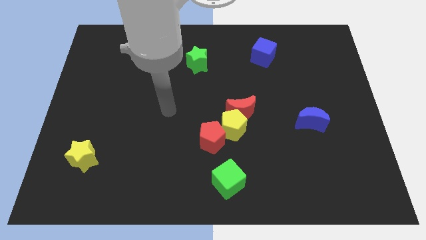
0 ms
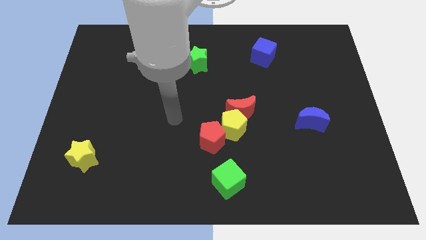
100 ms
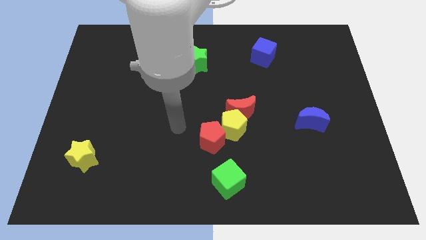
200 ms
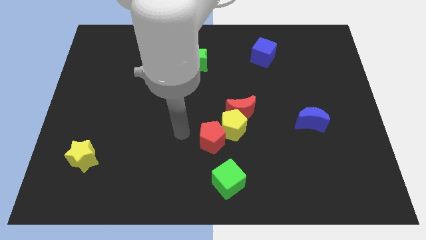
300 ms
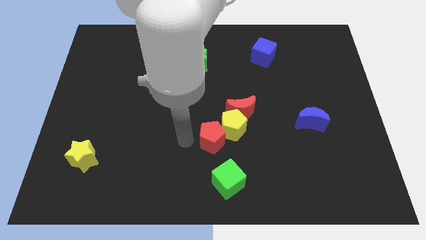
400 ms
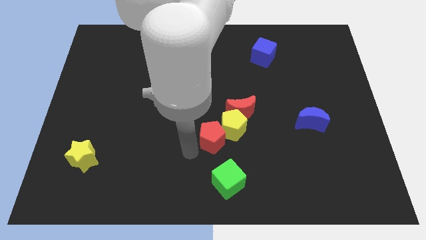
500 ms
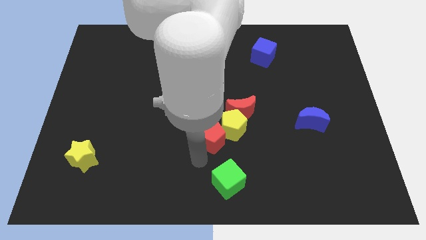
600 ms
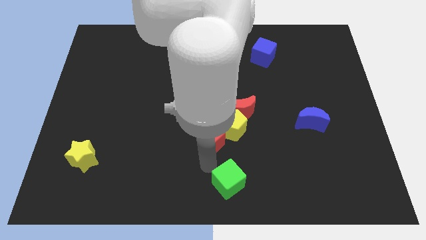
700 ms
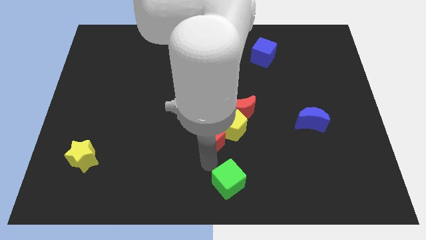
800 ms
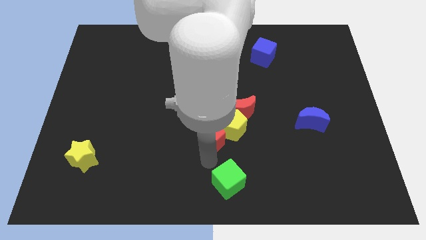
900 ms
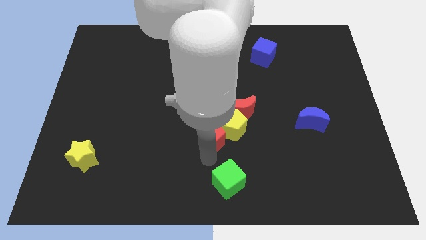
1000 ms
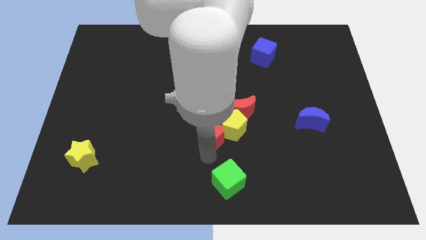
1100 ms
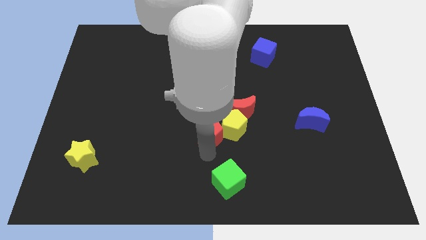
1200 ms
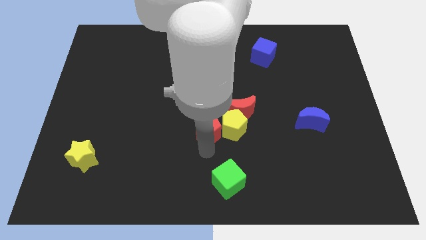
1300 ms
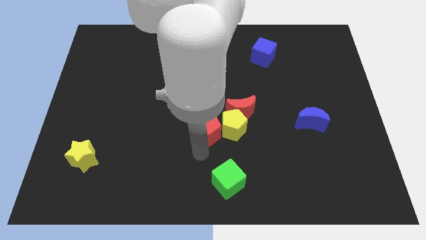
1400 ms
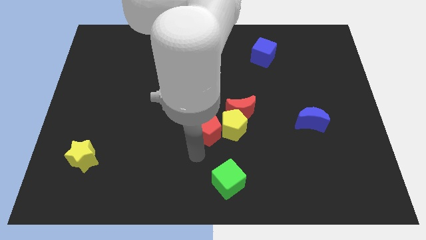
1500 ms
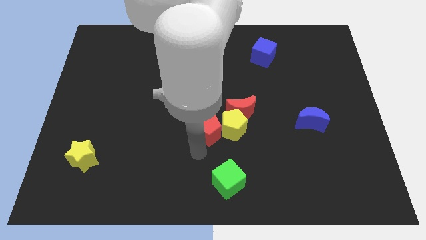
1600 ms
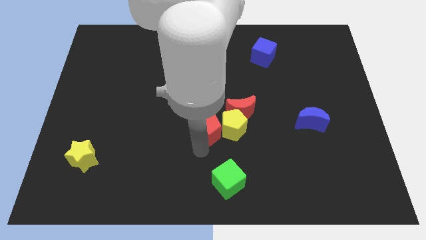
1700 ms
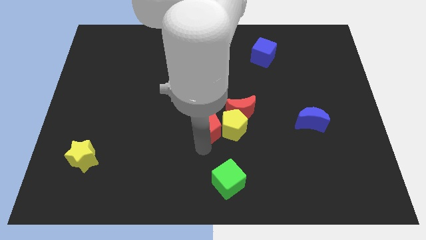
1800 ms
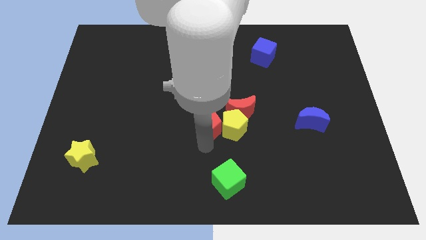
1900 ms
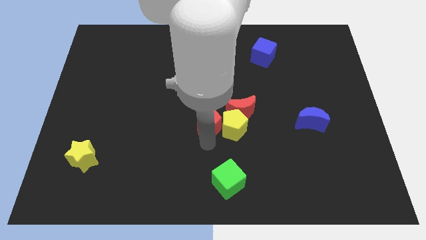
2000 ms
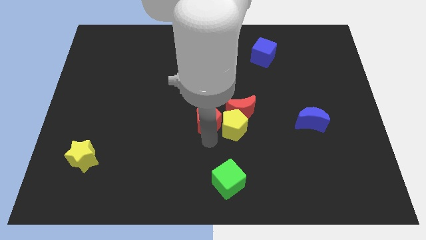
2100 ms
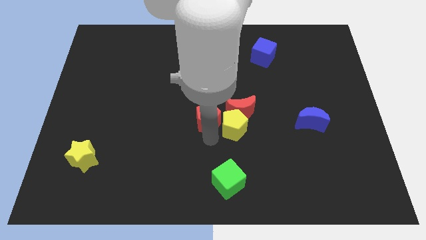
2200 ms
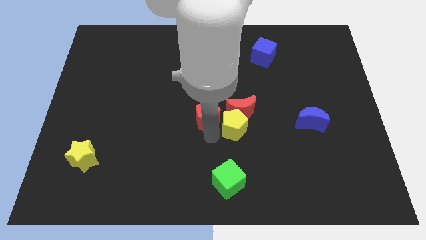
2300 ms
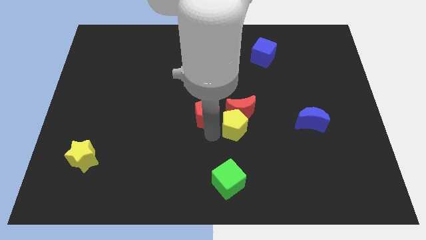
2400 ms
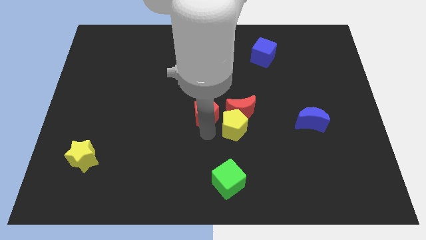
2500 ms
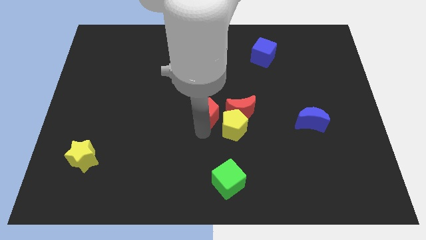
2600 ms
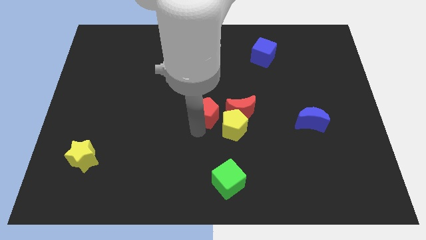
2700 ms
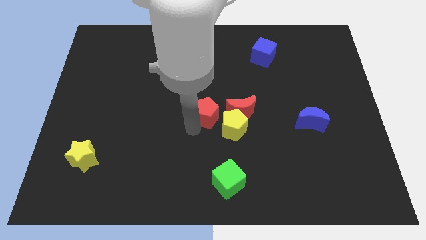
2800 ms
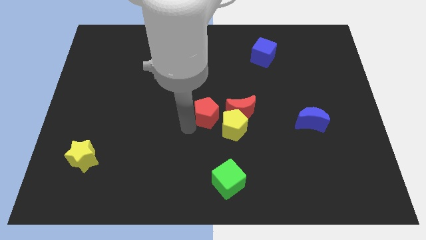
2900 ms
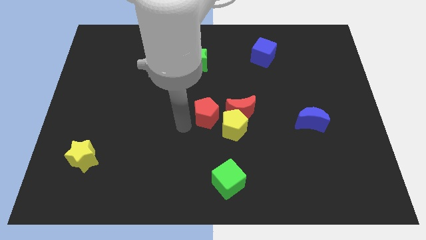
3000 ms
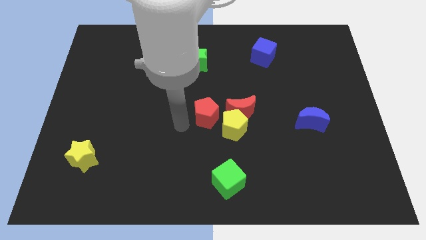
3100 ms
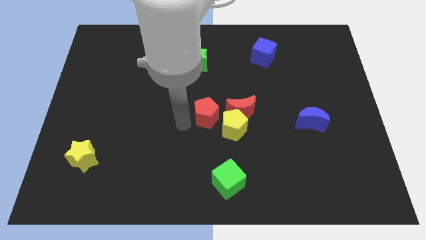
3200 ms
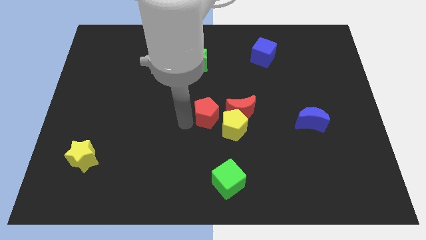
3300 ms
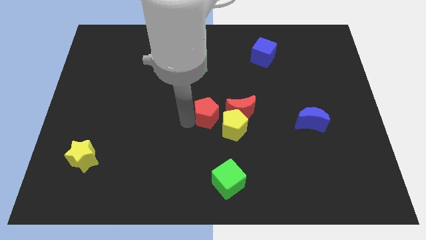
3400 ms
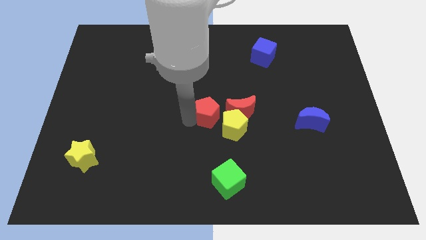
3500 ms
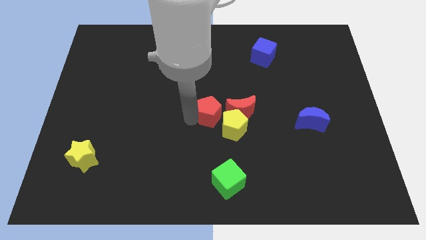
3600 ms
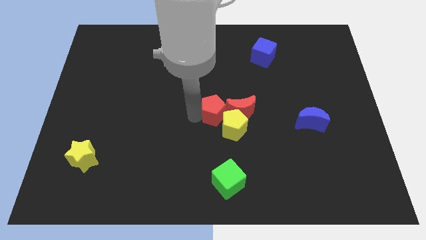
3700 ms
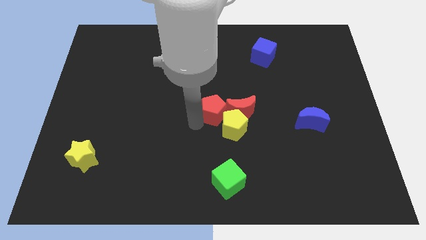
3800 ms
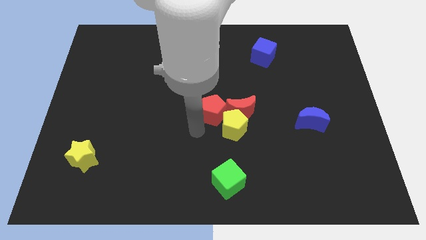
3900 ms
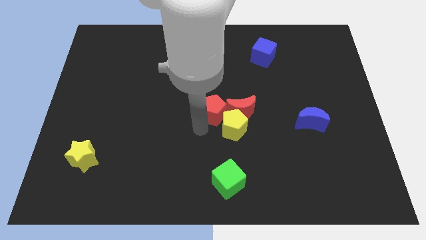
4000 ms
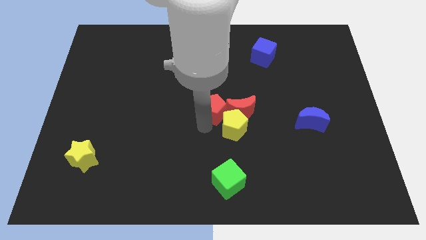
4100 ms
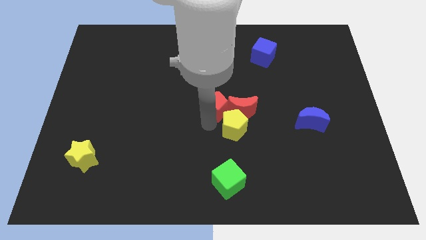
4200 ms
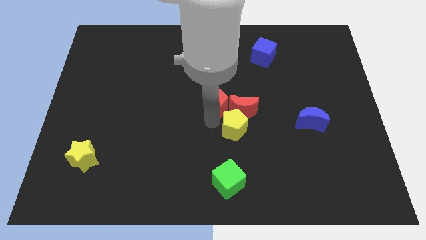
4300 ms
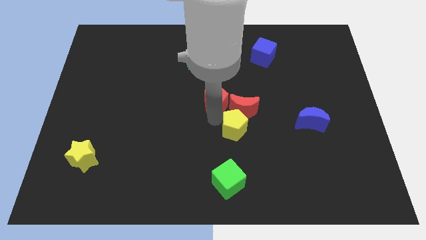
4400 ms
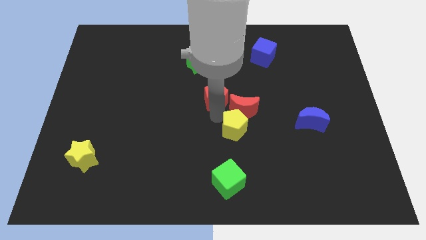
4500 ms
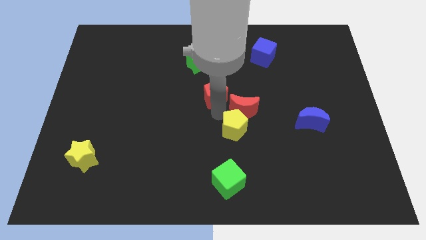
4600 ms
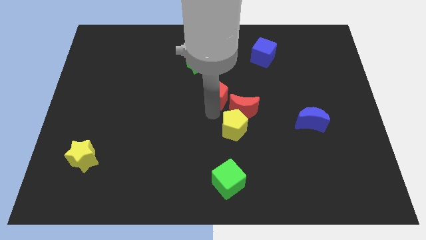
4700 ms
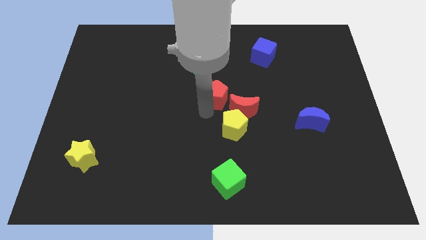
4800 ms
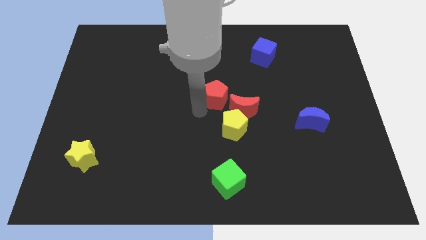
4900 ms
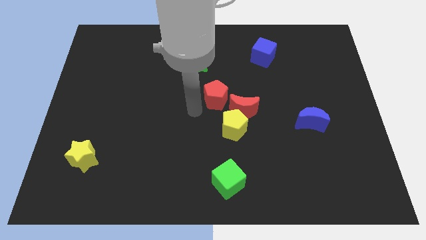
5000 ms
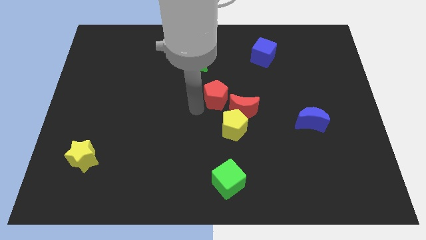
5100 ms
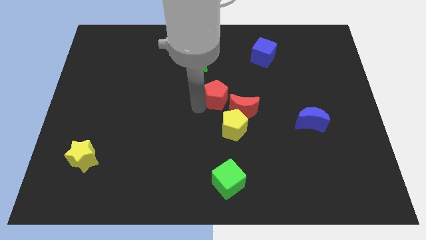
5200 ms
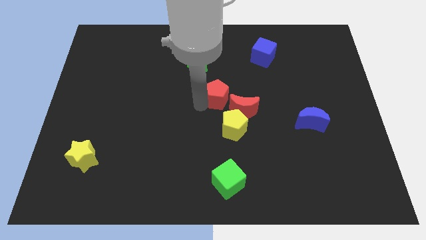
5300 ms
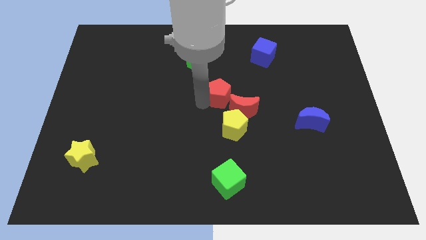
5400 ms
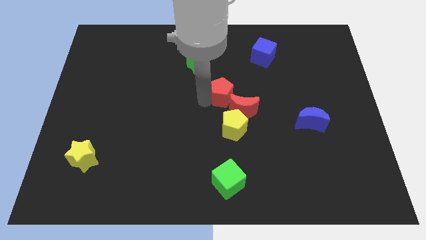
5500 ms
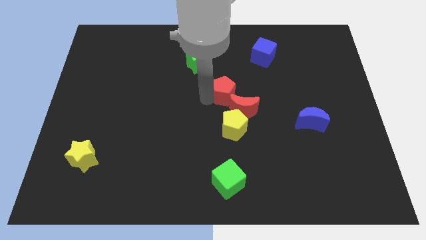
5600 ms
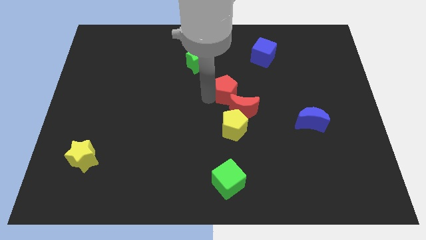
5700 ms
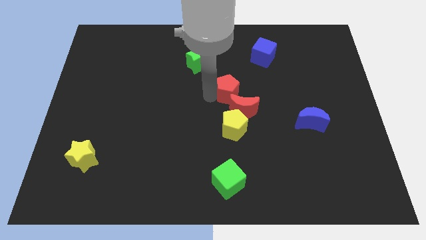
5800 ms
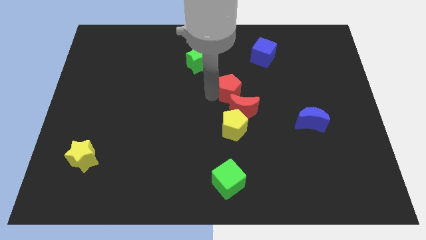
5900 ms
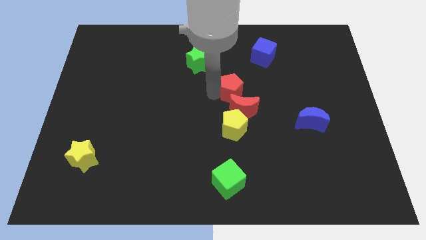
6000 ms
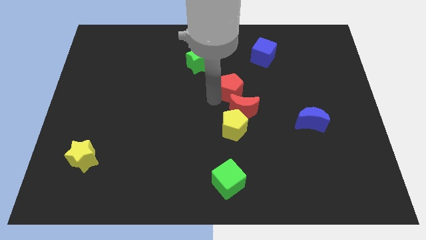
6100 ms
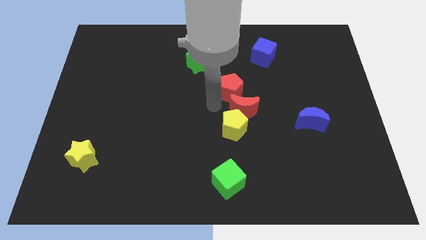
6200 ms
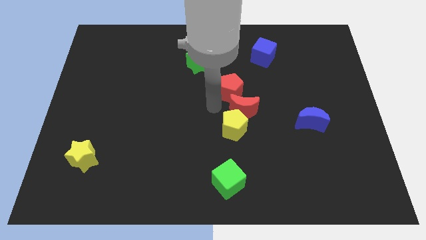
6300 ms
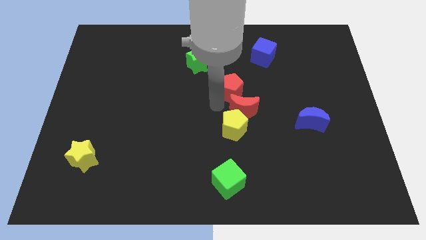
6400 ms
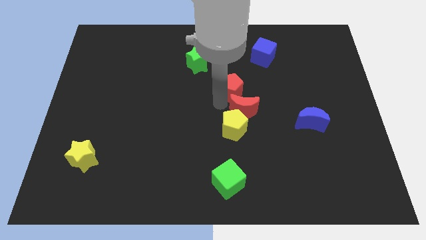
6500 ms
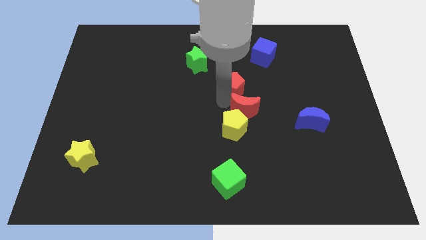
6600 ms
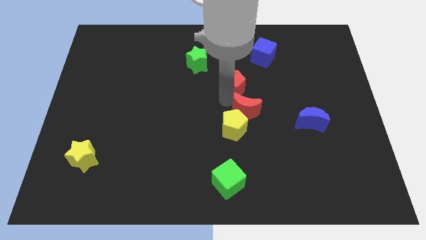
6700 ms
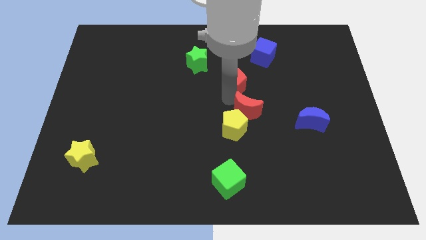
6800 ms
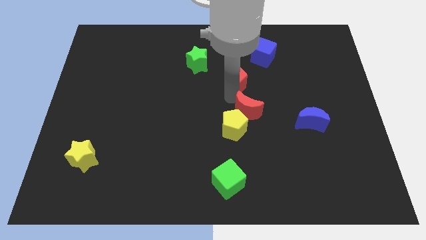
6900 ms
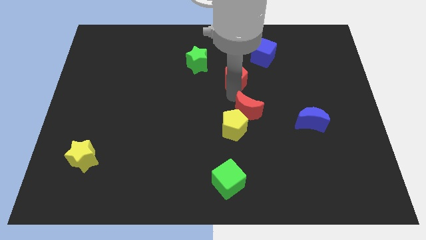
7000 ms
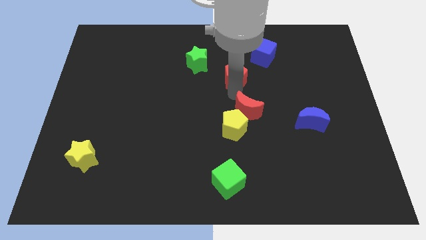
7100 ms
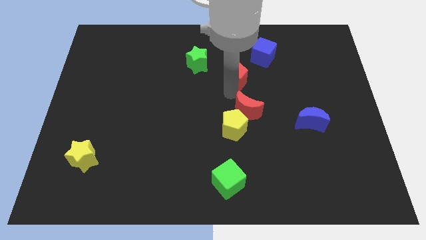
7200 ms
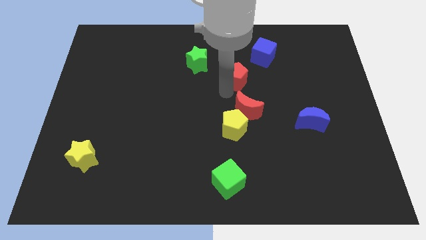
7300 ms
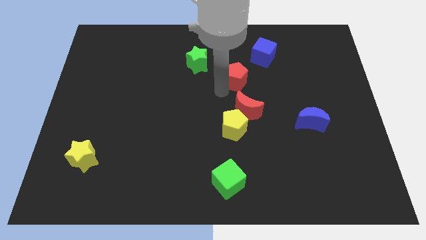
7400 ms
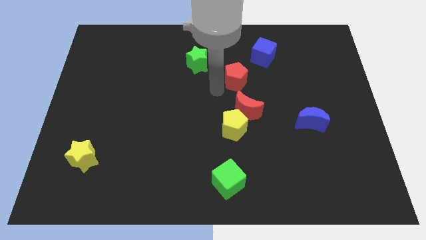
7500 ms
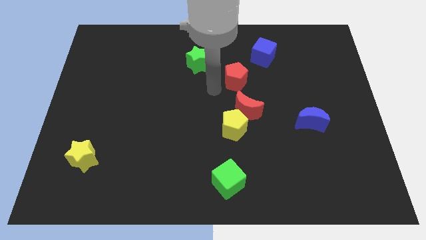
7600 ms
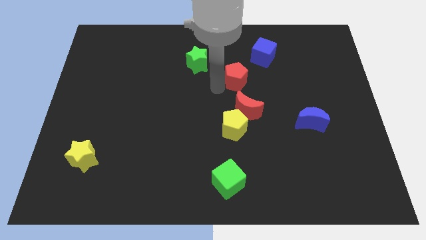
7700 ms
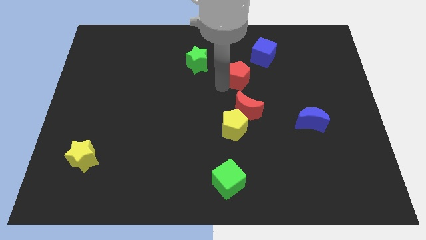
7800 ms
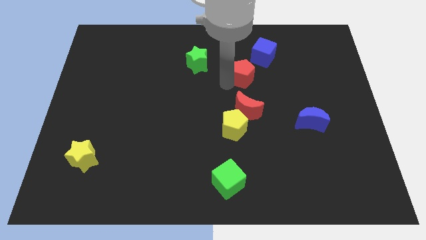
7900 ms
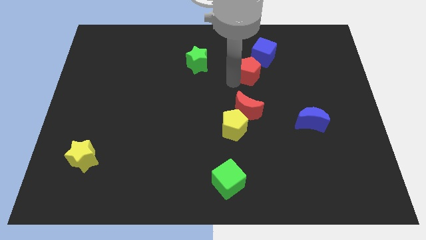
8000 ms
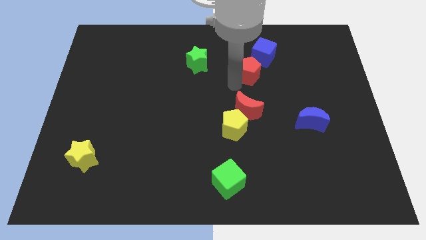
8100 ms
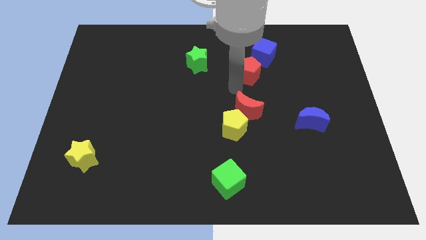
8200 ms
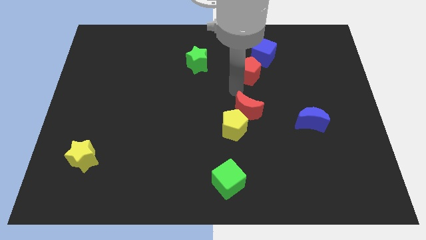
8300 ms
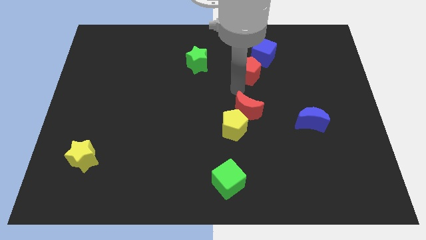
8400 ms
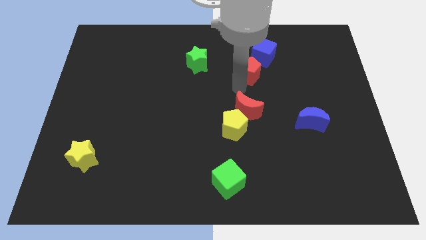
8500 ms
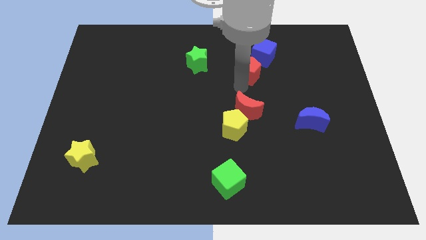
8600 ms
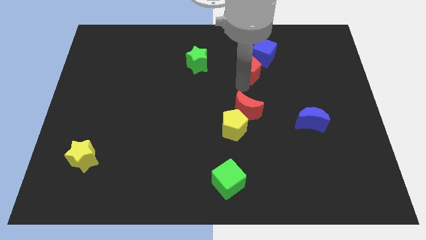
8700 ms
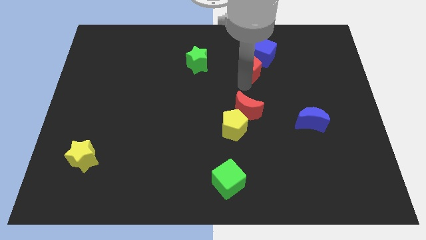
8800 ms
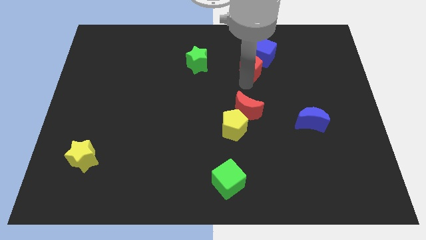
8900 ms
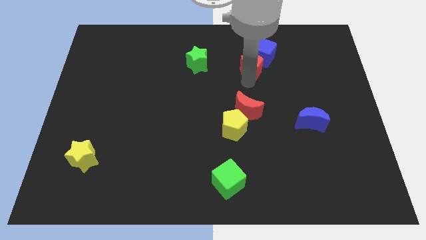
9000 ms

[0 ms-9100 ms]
put the red pentagon next to the blue cube
